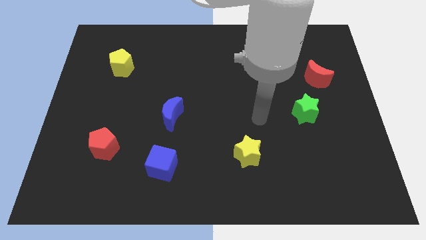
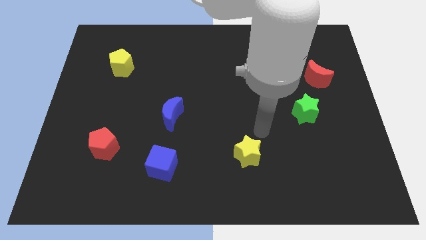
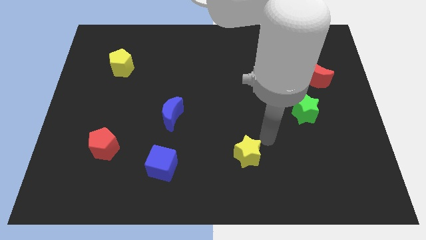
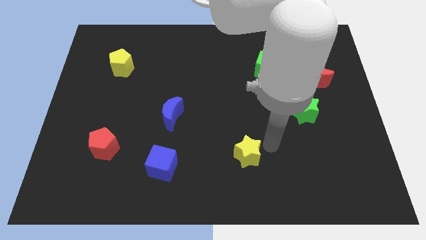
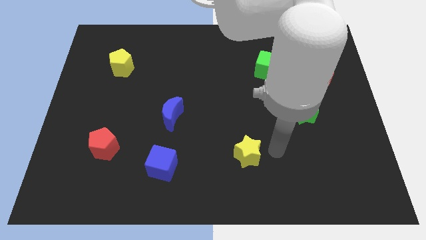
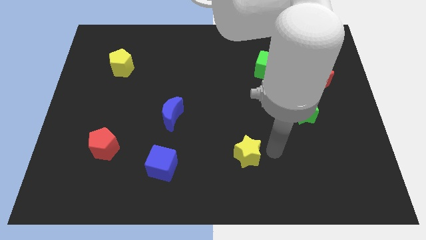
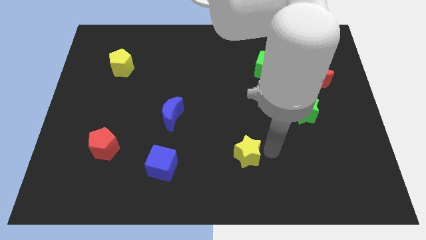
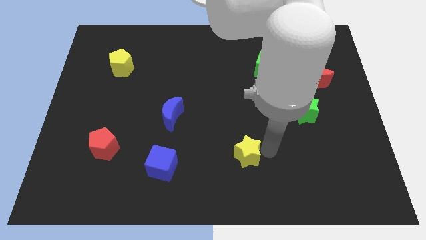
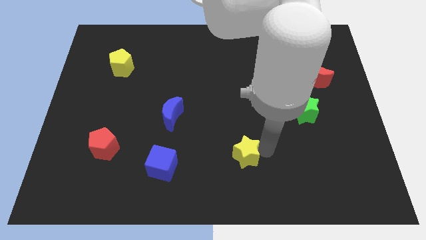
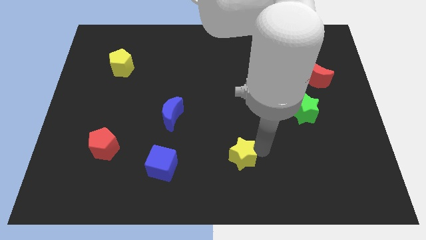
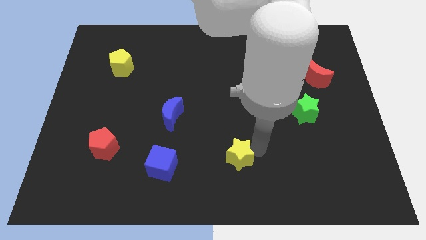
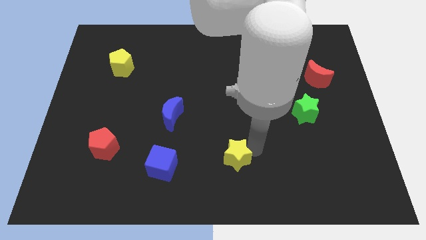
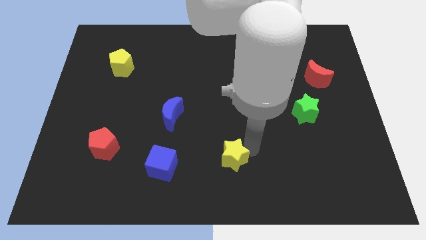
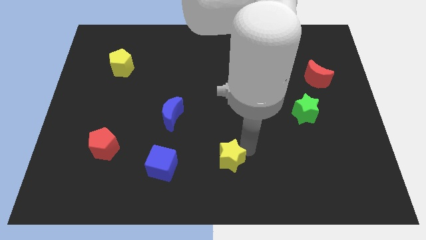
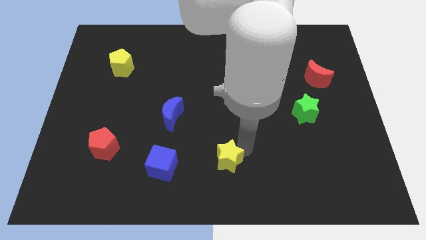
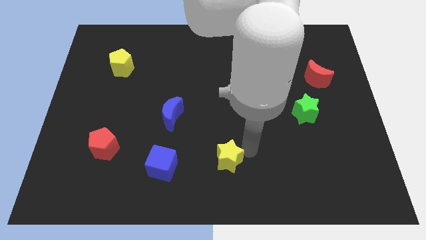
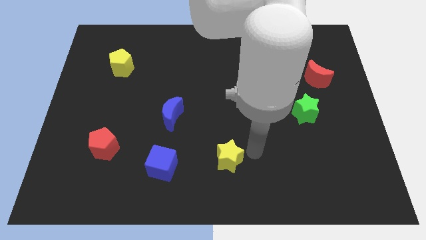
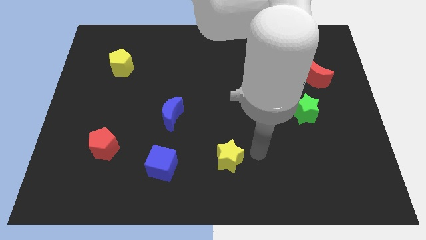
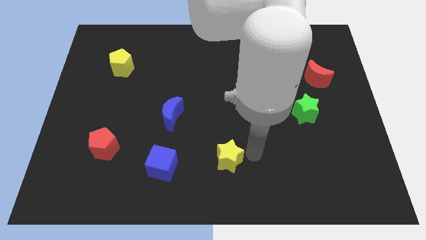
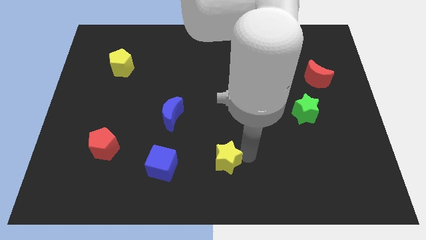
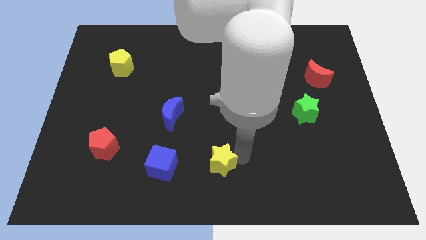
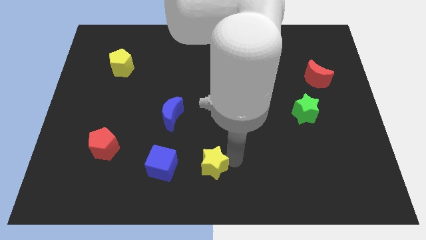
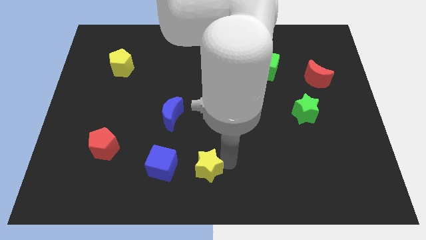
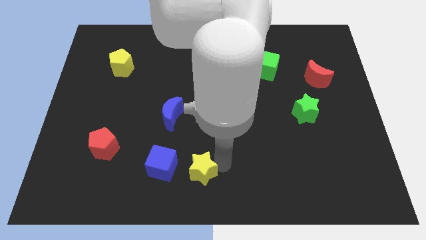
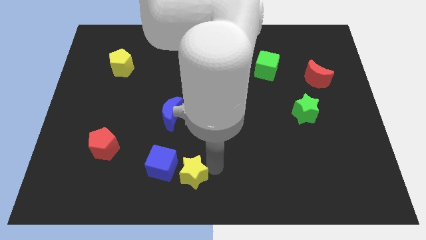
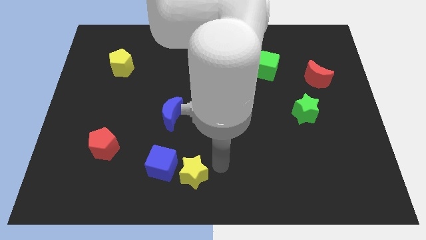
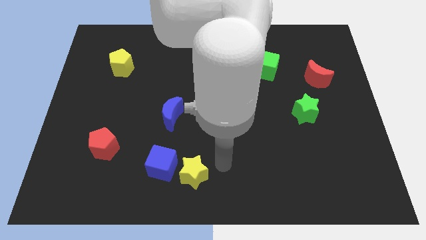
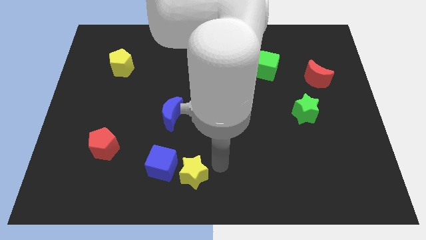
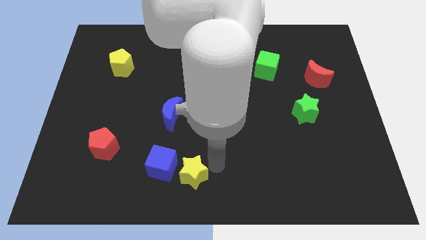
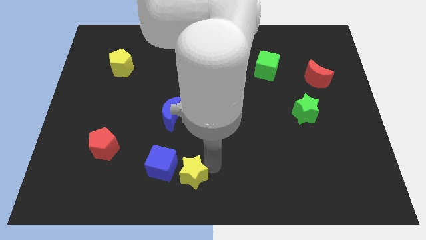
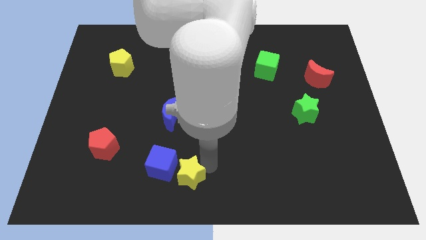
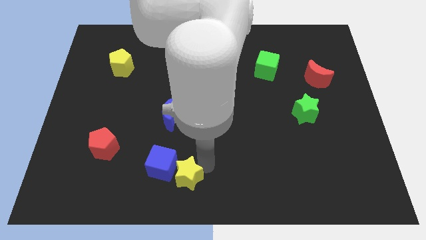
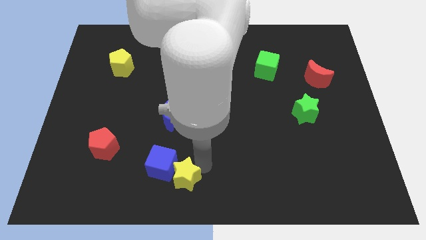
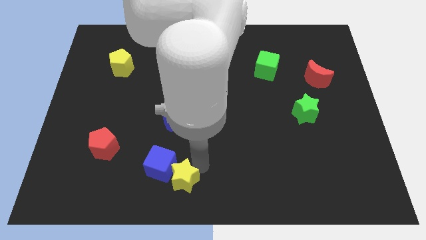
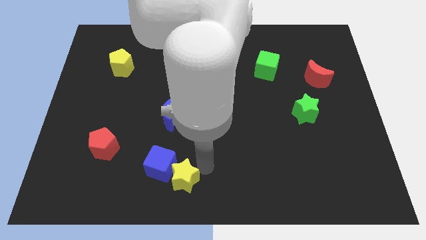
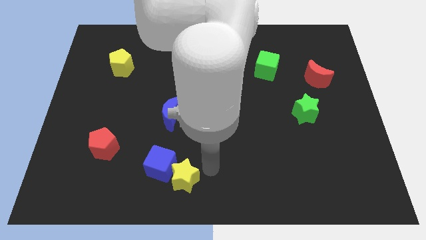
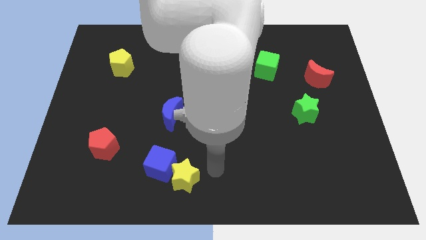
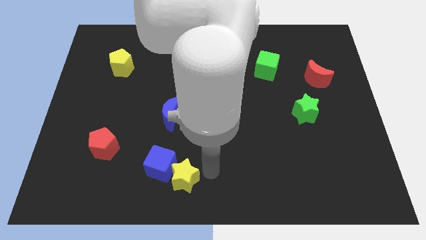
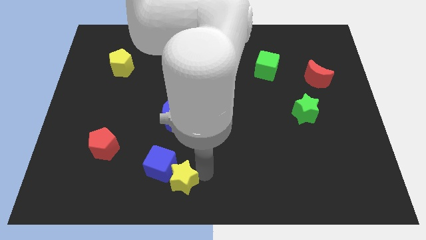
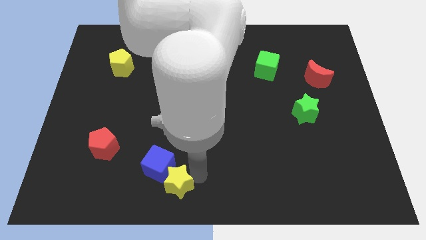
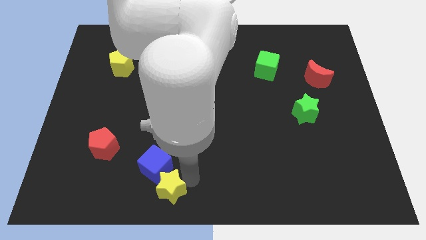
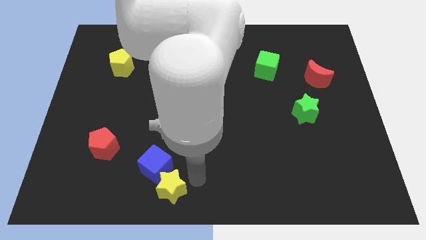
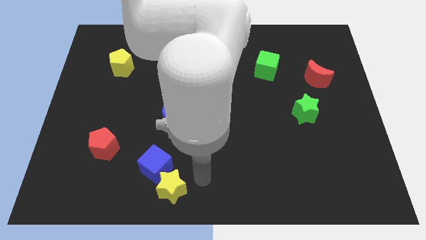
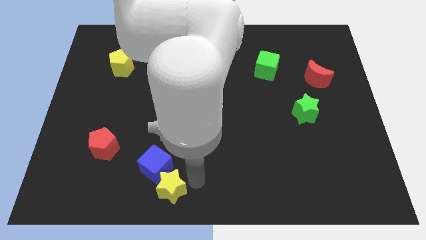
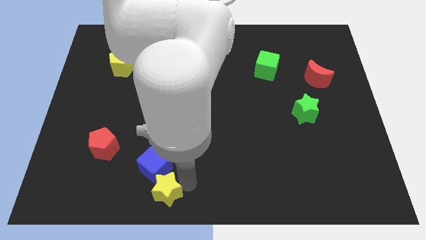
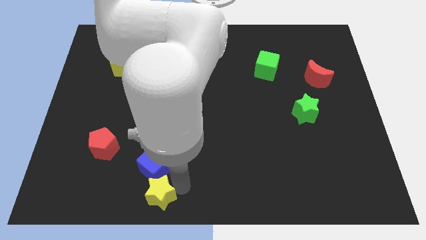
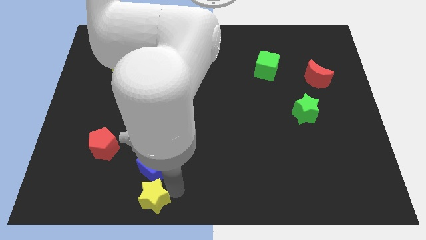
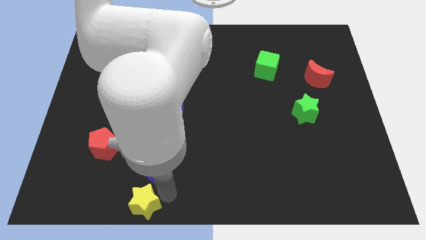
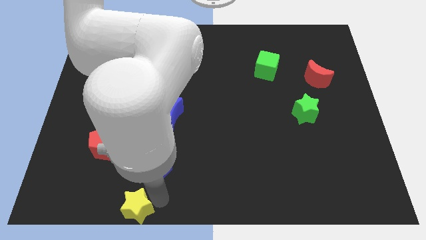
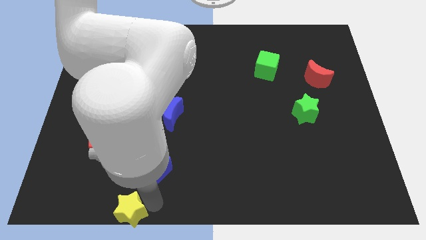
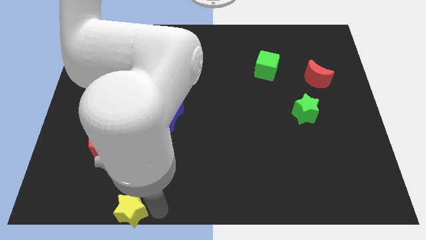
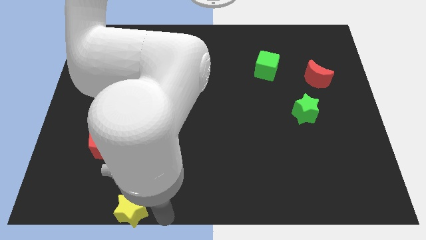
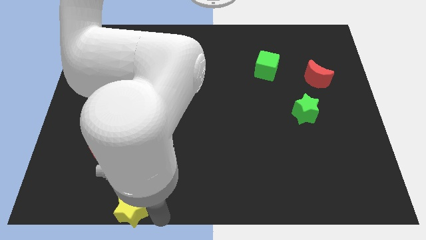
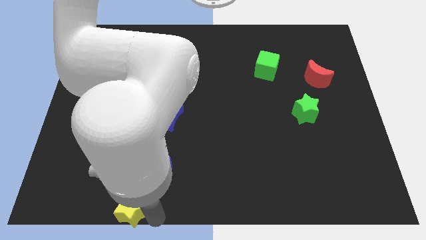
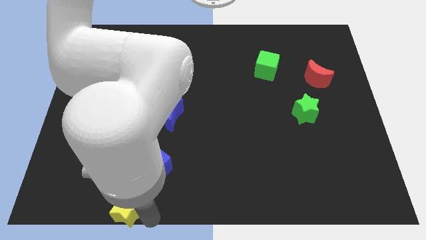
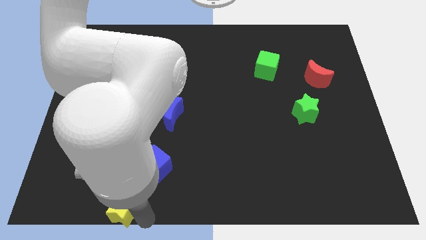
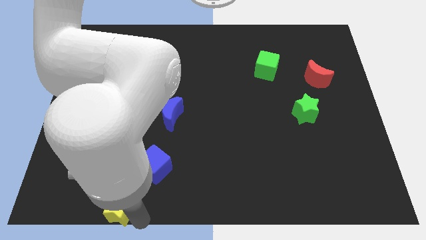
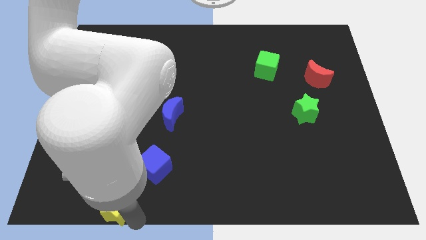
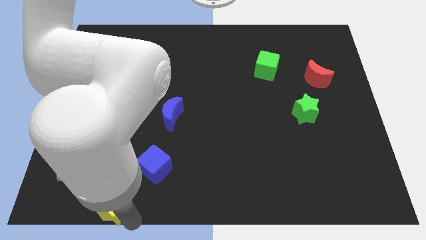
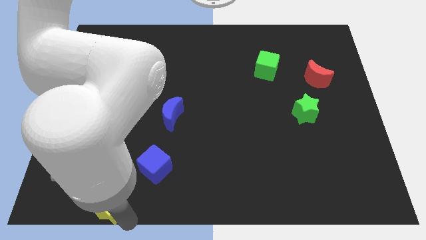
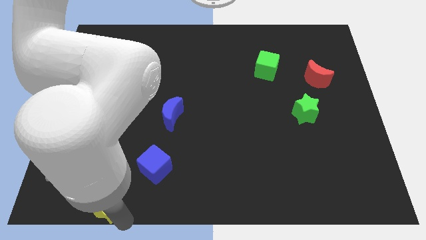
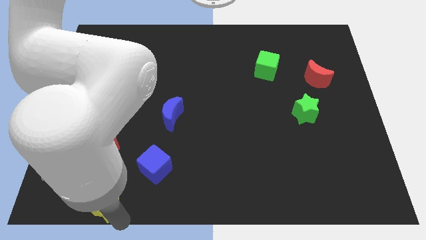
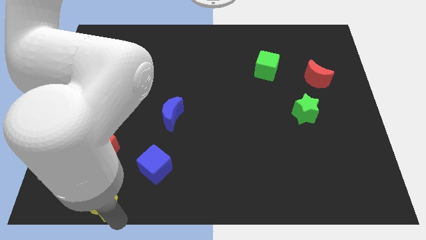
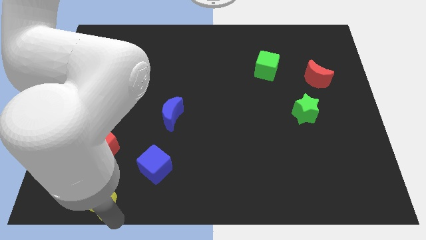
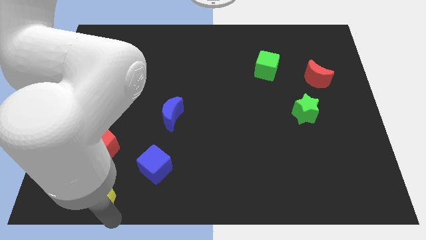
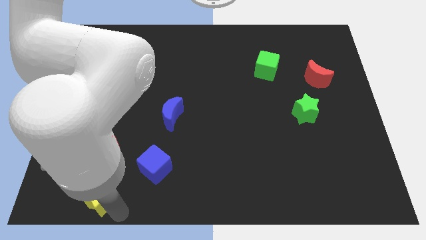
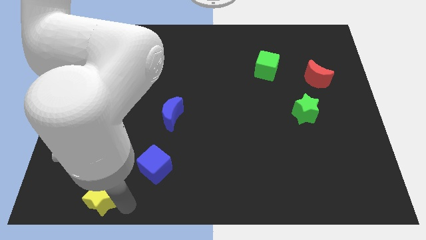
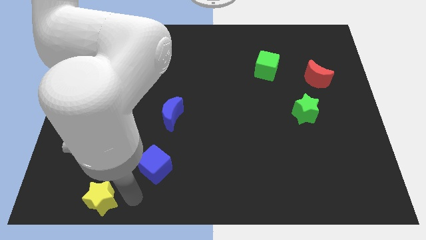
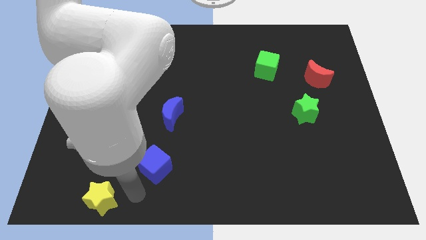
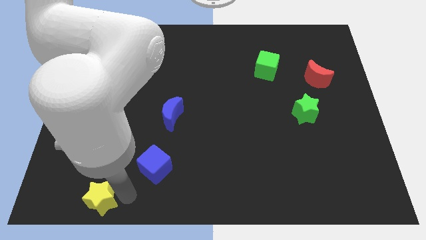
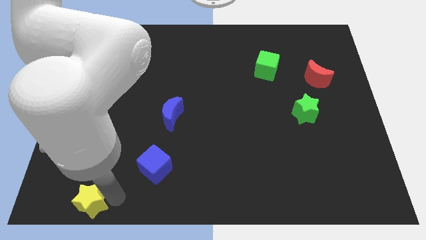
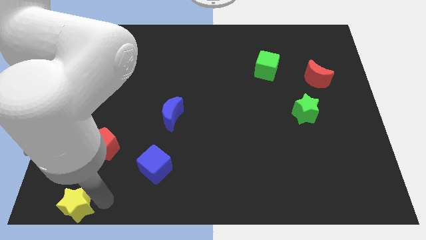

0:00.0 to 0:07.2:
put the yellow star to the bottom left of the board
